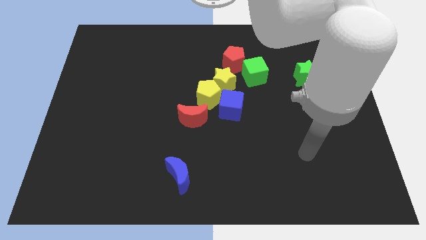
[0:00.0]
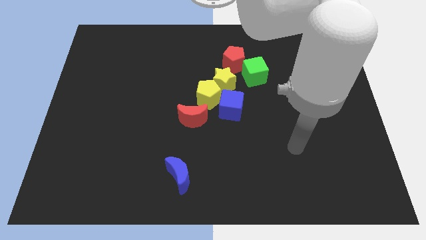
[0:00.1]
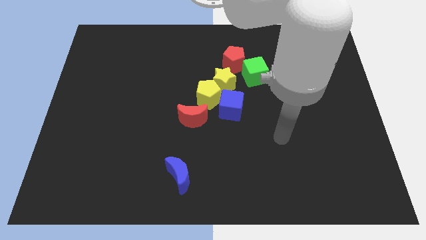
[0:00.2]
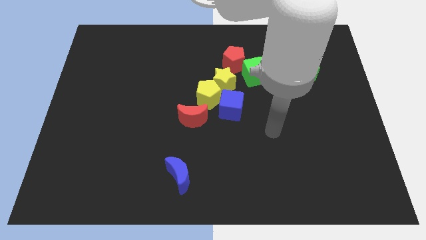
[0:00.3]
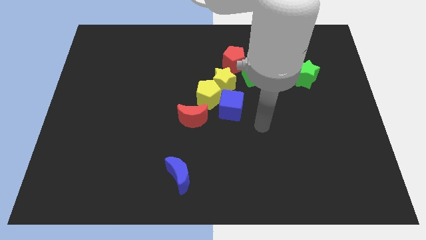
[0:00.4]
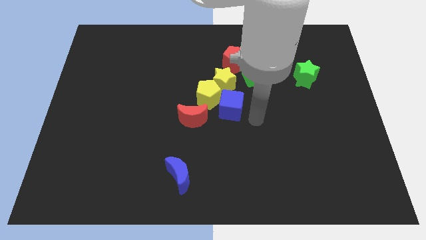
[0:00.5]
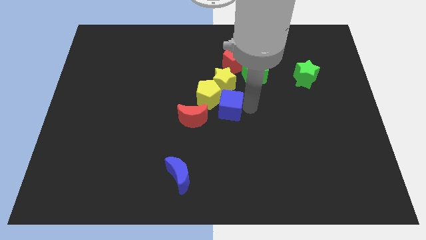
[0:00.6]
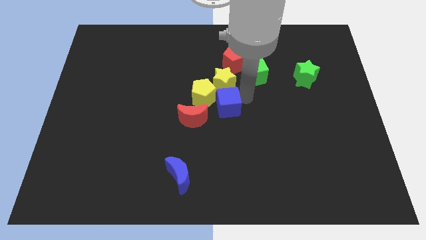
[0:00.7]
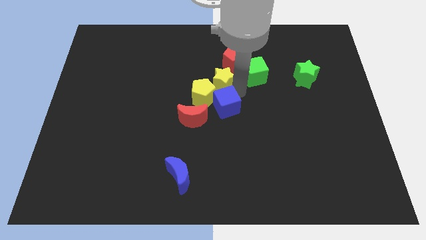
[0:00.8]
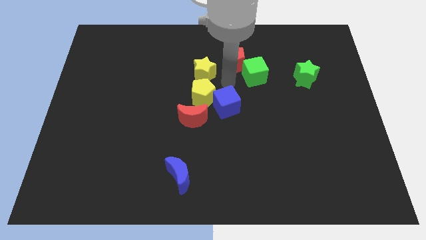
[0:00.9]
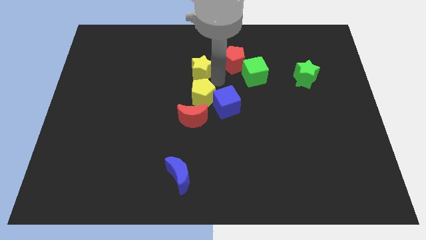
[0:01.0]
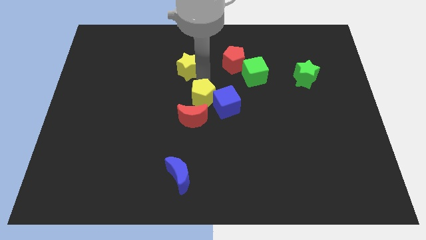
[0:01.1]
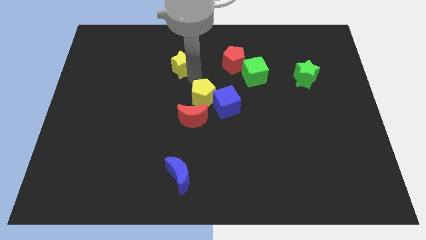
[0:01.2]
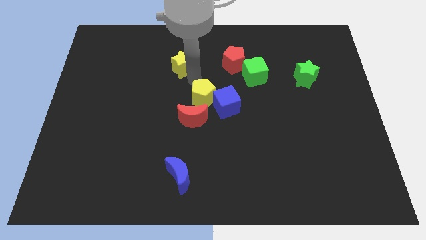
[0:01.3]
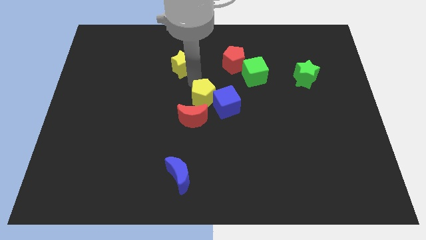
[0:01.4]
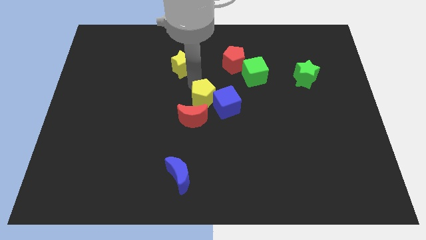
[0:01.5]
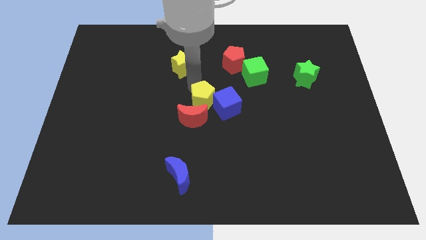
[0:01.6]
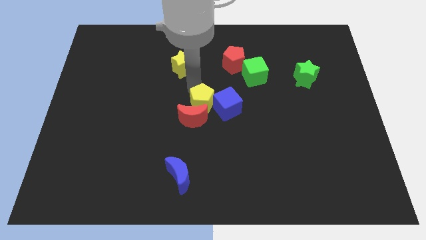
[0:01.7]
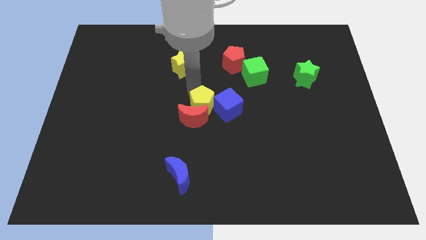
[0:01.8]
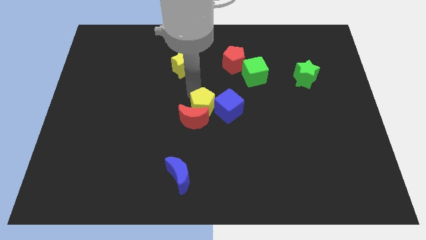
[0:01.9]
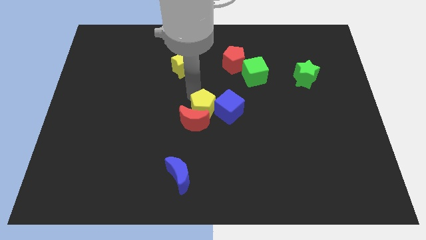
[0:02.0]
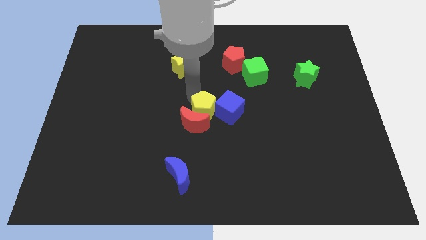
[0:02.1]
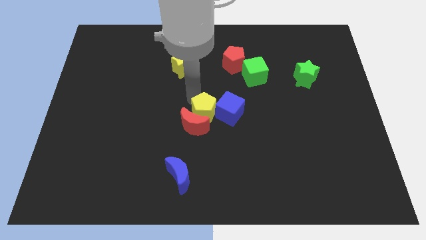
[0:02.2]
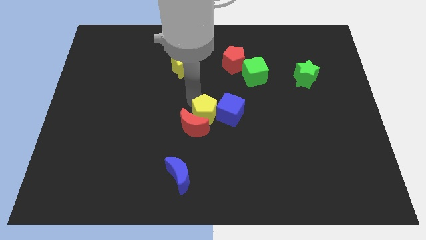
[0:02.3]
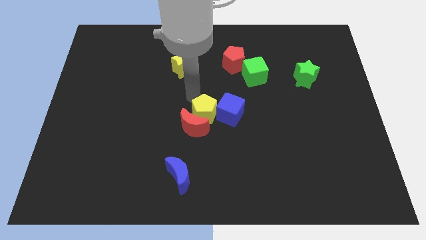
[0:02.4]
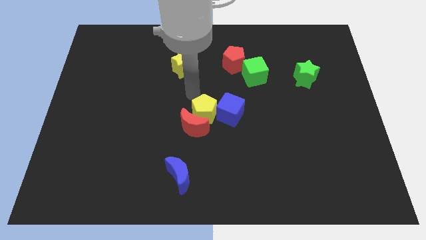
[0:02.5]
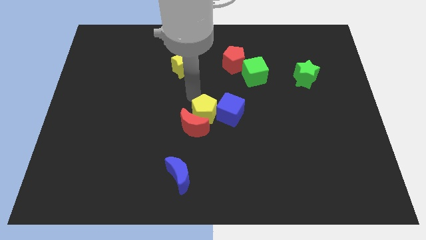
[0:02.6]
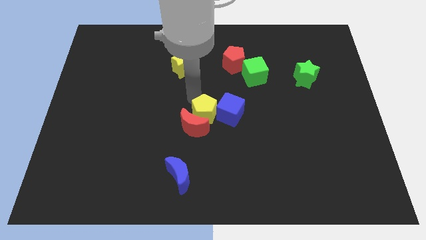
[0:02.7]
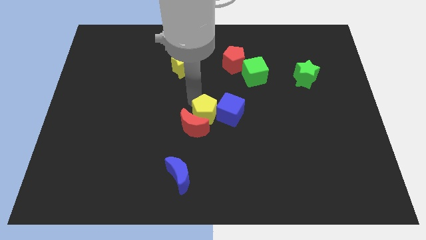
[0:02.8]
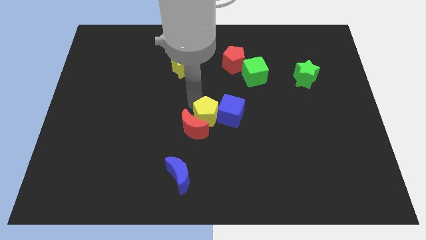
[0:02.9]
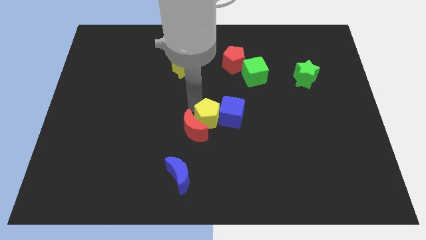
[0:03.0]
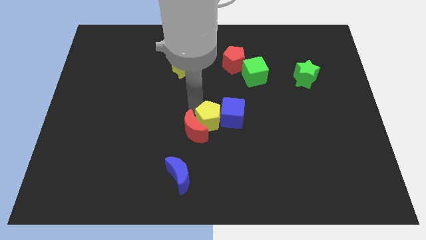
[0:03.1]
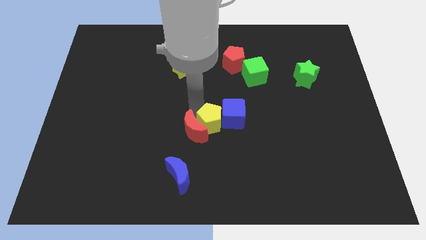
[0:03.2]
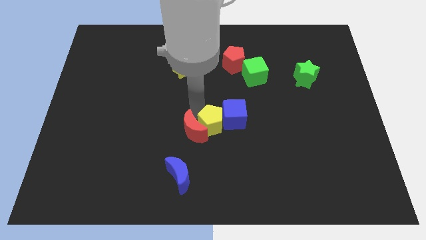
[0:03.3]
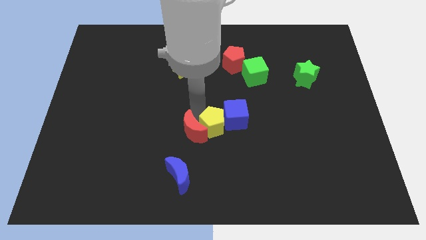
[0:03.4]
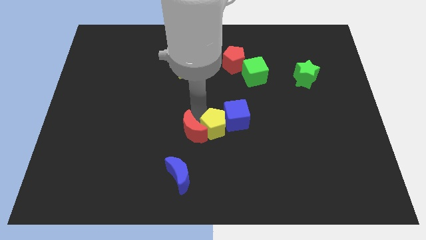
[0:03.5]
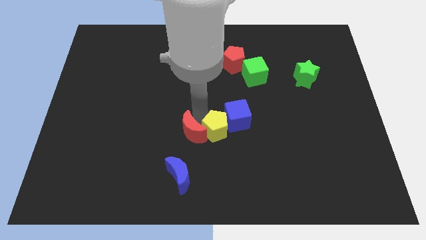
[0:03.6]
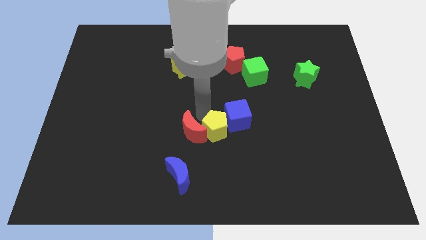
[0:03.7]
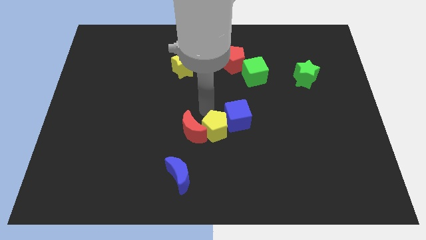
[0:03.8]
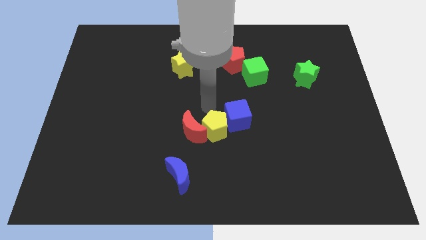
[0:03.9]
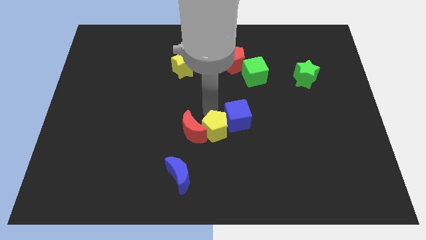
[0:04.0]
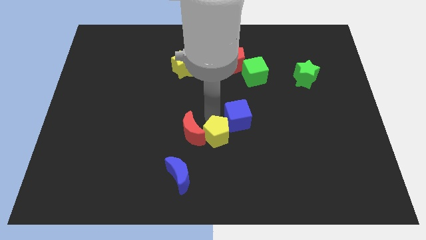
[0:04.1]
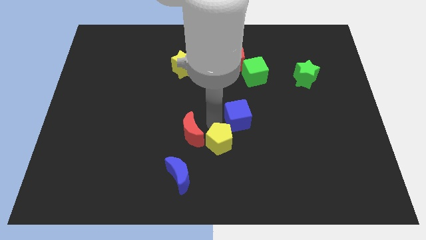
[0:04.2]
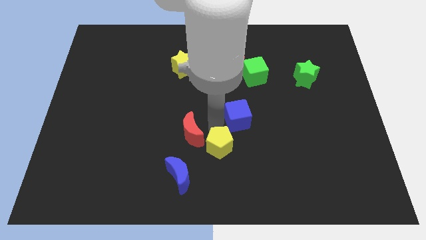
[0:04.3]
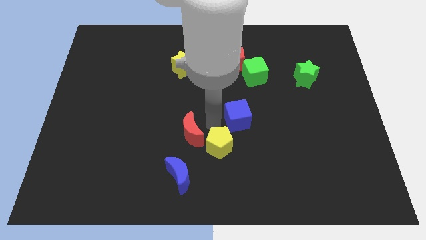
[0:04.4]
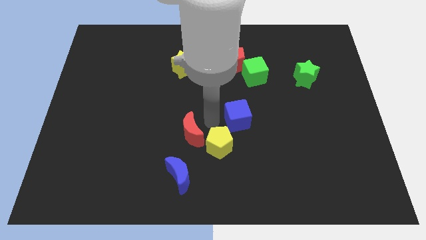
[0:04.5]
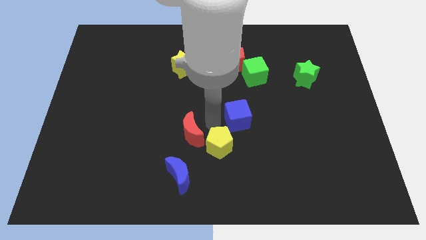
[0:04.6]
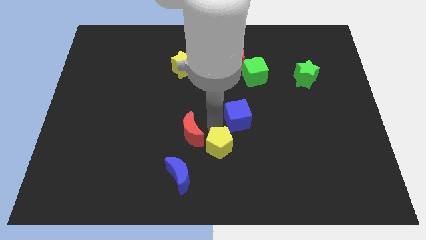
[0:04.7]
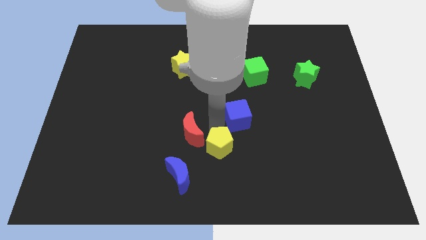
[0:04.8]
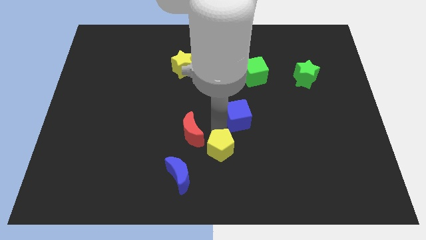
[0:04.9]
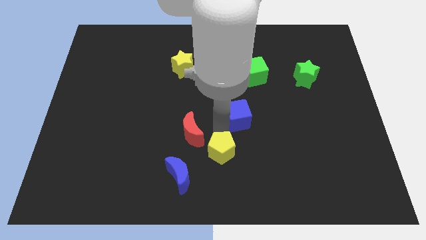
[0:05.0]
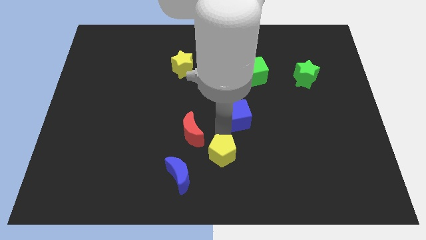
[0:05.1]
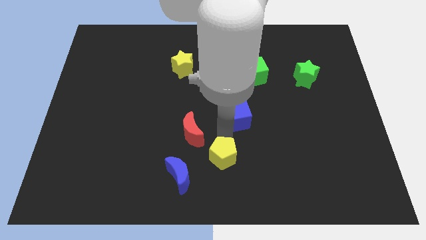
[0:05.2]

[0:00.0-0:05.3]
put the yellow pentagon to the right of the blue moon
